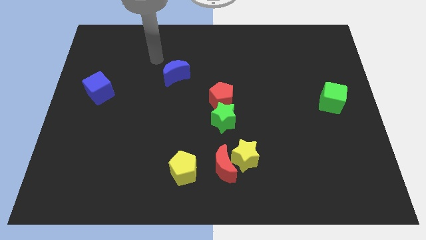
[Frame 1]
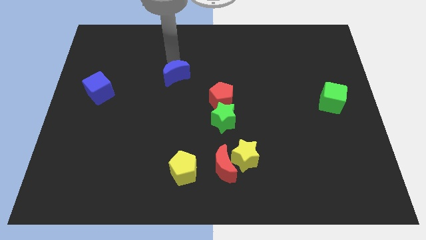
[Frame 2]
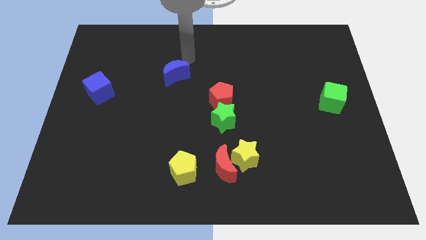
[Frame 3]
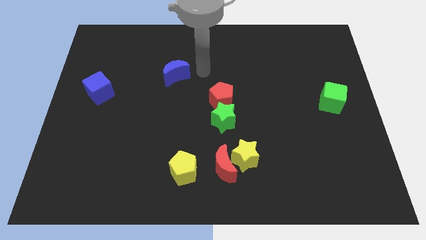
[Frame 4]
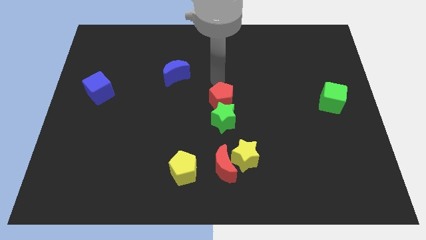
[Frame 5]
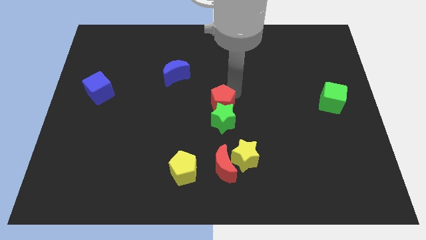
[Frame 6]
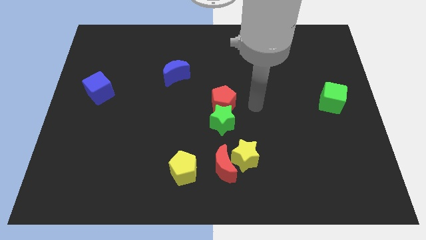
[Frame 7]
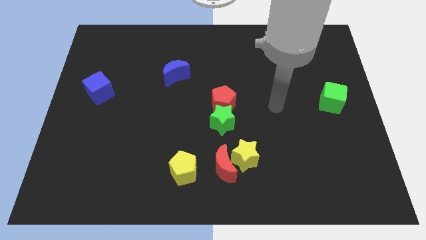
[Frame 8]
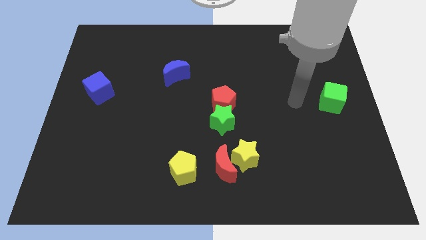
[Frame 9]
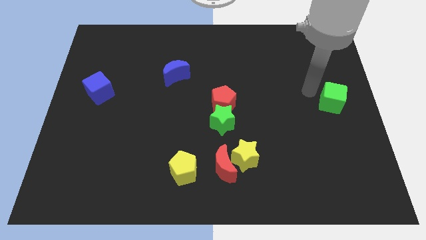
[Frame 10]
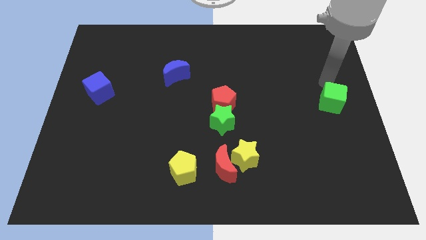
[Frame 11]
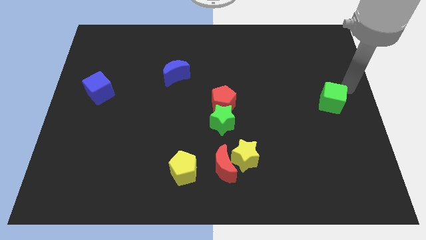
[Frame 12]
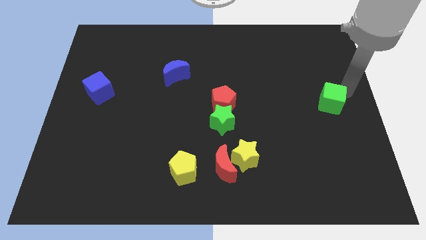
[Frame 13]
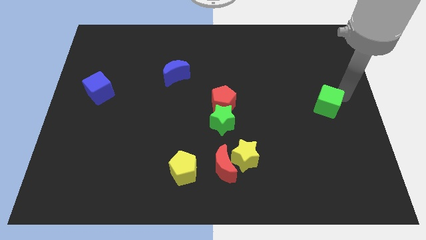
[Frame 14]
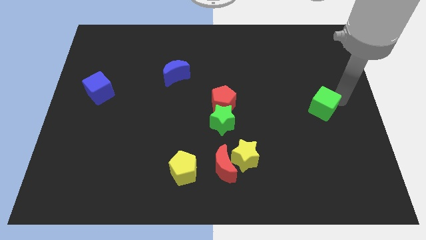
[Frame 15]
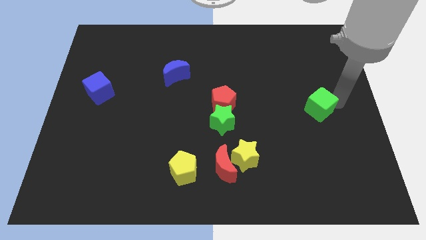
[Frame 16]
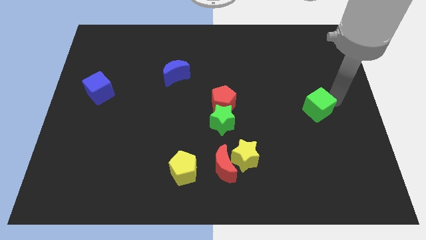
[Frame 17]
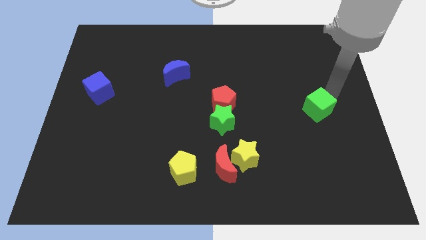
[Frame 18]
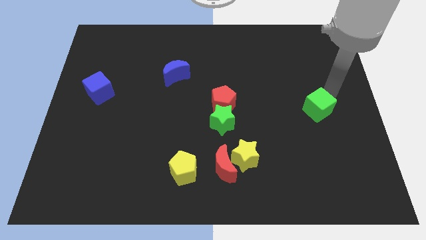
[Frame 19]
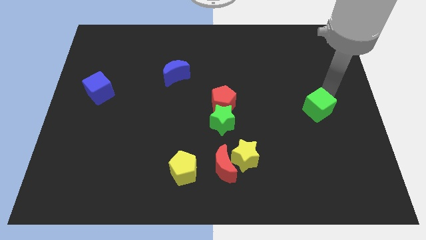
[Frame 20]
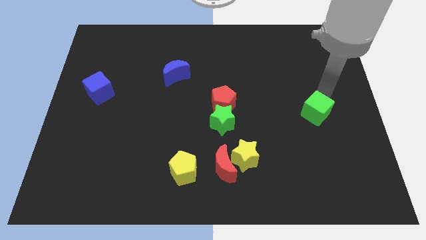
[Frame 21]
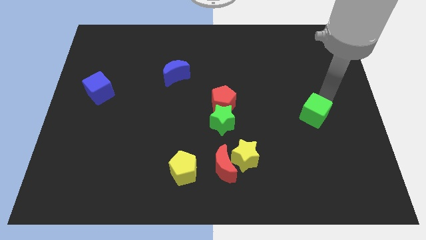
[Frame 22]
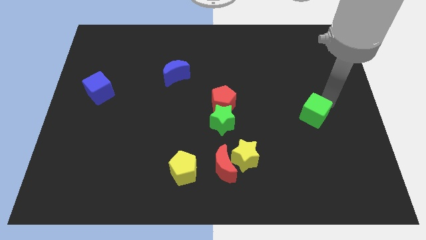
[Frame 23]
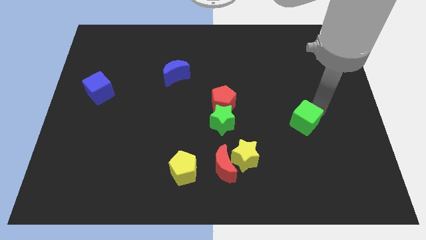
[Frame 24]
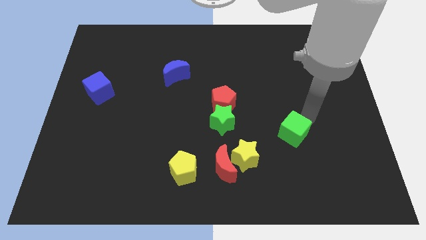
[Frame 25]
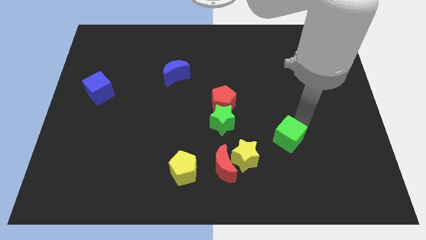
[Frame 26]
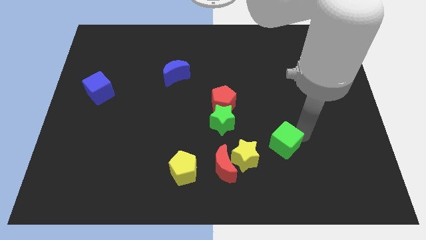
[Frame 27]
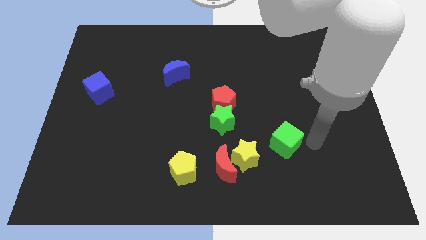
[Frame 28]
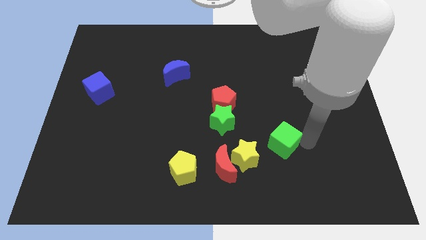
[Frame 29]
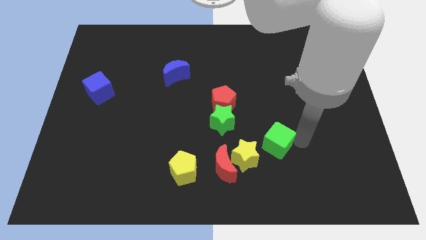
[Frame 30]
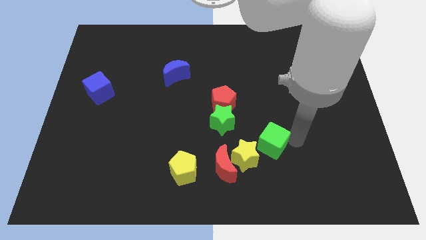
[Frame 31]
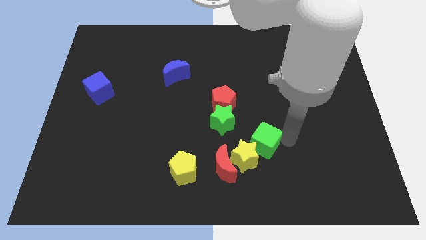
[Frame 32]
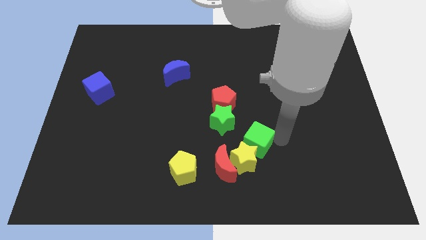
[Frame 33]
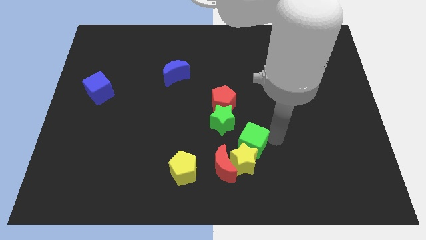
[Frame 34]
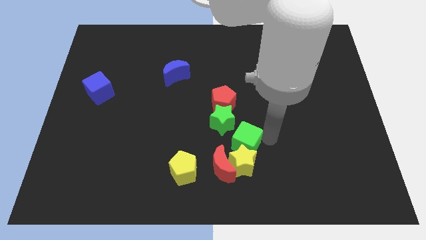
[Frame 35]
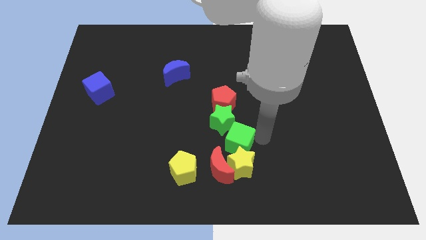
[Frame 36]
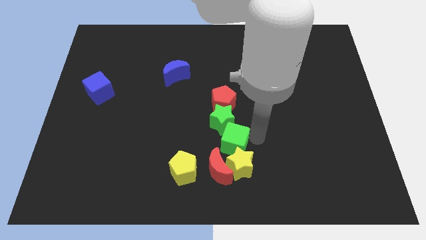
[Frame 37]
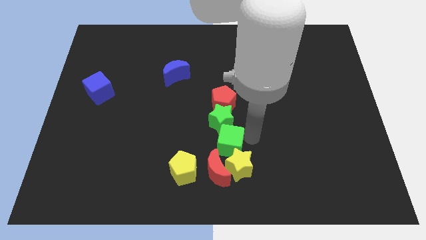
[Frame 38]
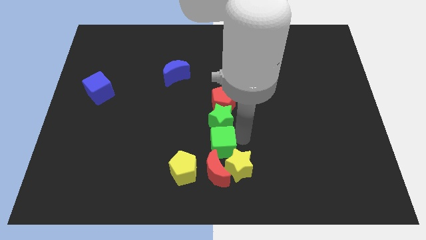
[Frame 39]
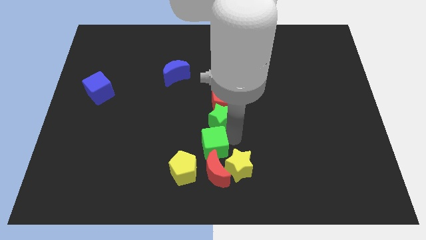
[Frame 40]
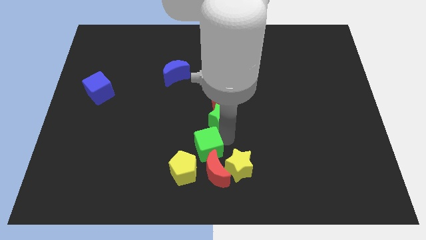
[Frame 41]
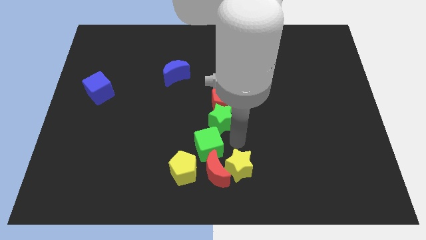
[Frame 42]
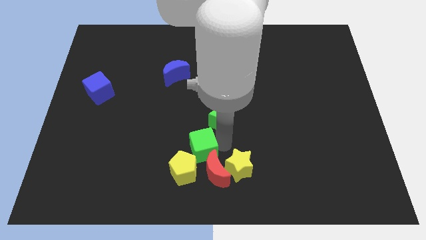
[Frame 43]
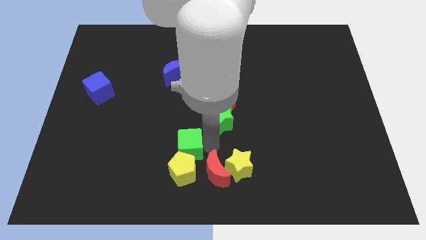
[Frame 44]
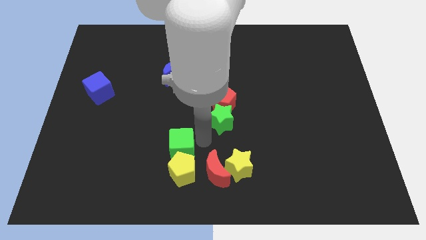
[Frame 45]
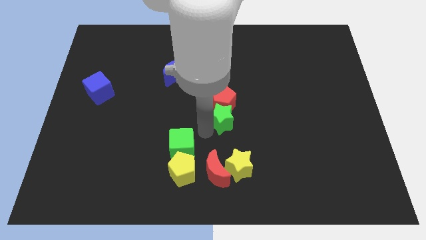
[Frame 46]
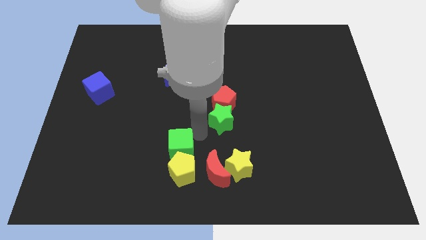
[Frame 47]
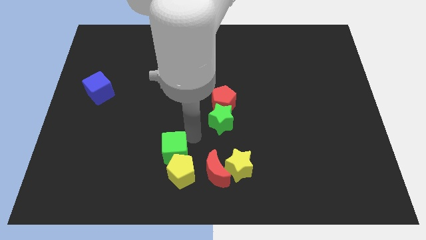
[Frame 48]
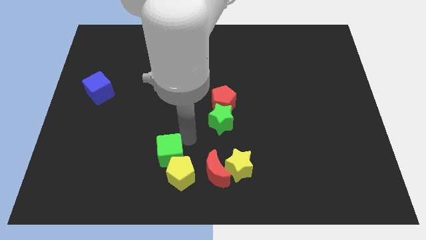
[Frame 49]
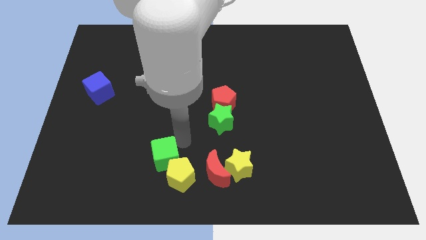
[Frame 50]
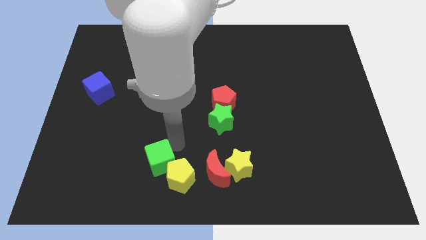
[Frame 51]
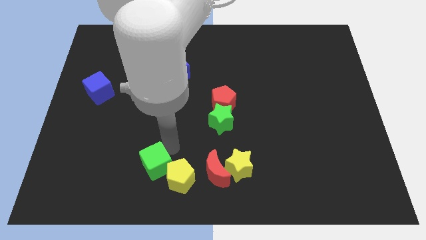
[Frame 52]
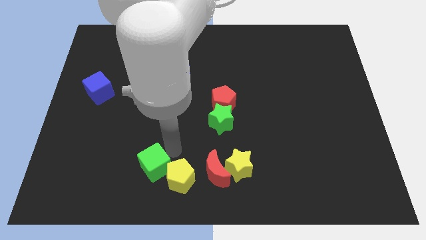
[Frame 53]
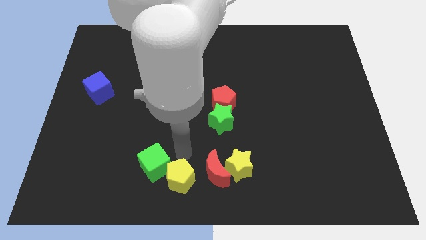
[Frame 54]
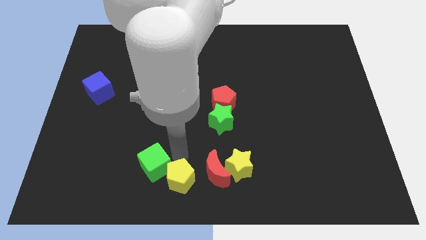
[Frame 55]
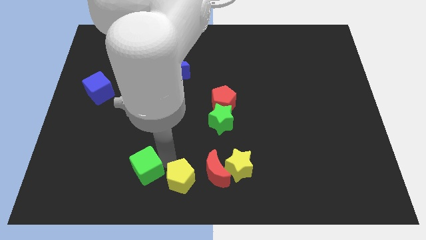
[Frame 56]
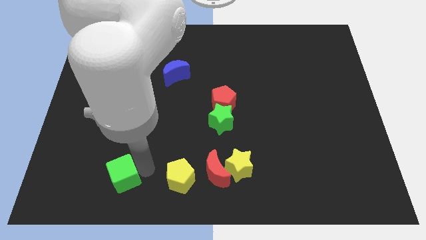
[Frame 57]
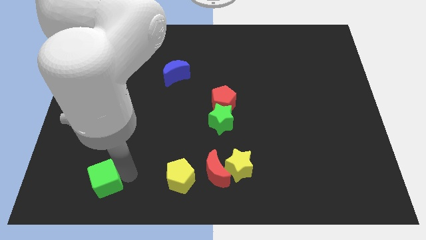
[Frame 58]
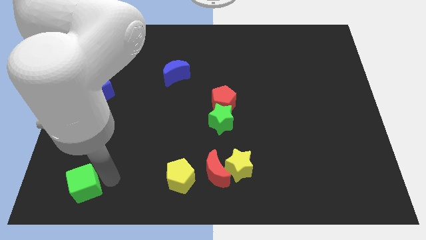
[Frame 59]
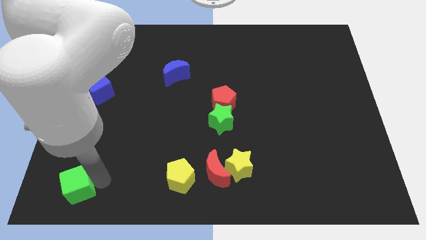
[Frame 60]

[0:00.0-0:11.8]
put the green cube to the lower left corner

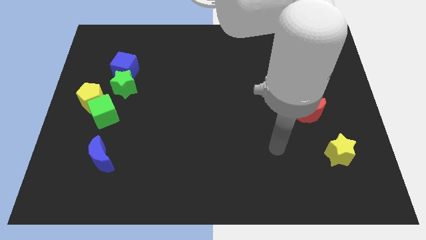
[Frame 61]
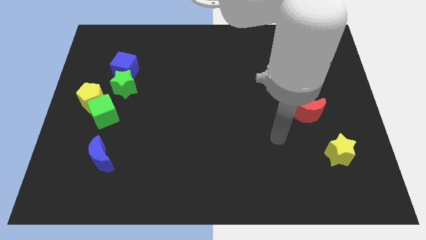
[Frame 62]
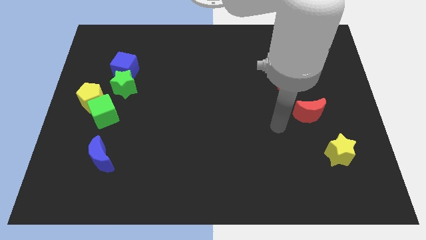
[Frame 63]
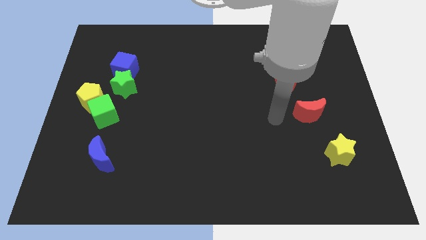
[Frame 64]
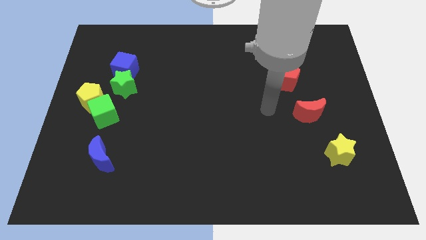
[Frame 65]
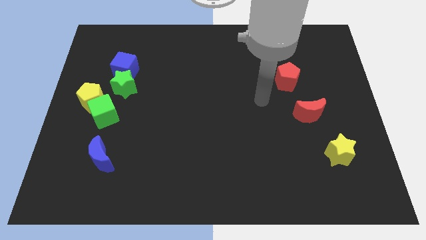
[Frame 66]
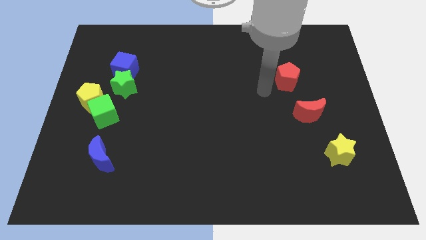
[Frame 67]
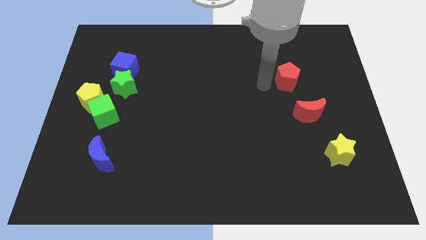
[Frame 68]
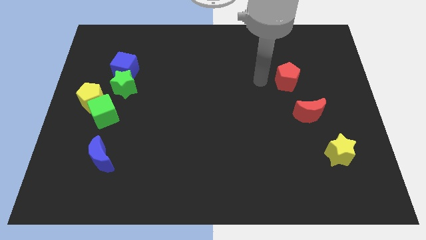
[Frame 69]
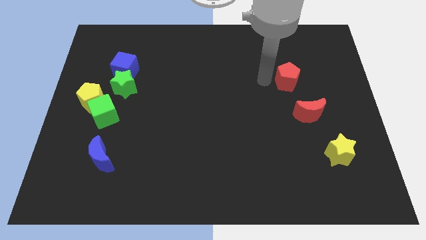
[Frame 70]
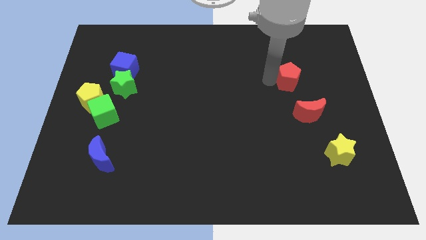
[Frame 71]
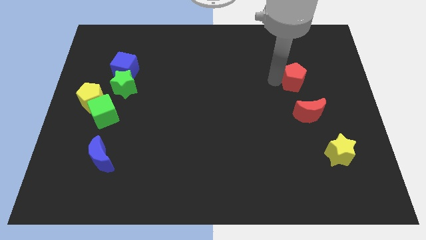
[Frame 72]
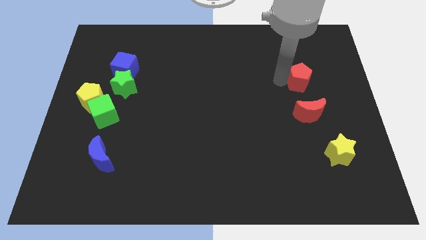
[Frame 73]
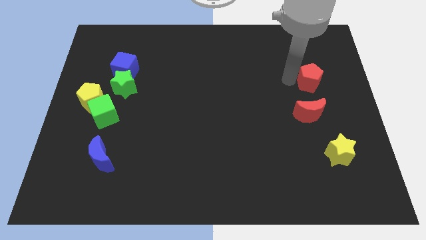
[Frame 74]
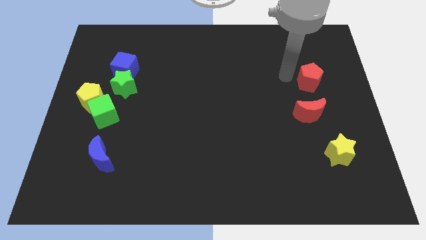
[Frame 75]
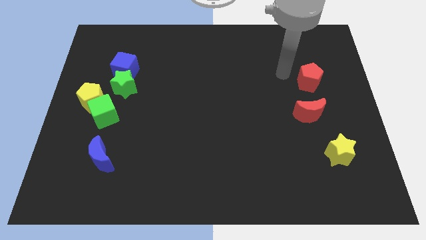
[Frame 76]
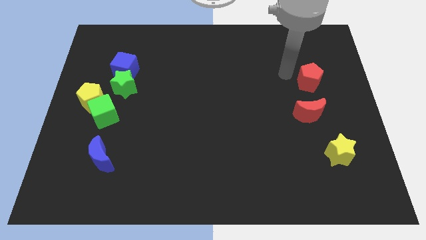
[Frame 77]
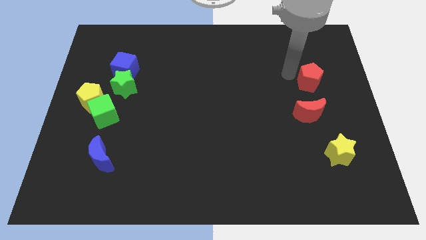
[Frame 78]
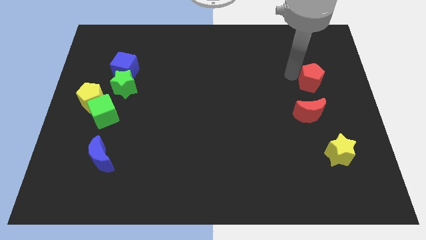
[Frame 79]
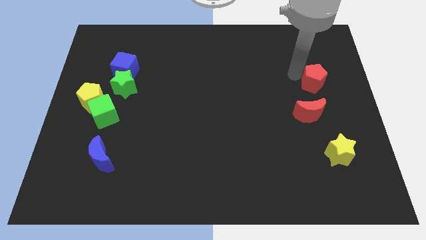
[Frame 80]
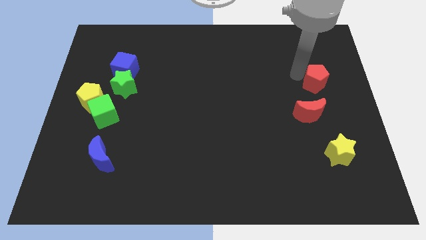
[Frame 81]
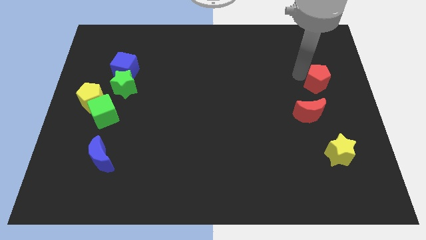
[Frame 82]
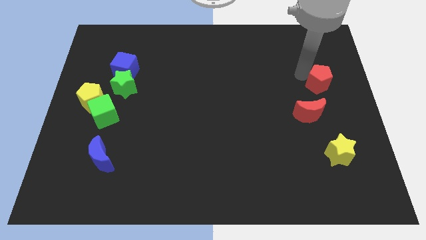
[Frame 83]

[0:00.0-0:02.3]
move the red pentagon to the right side of the board
